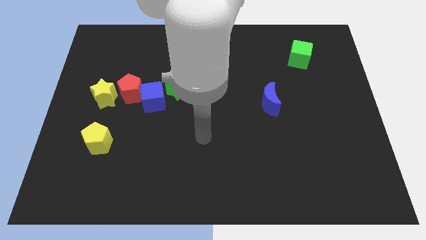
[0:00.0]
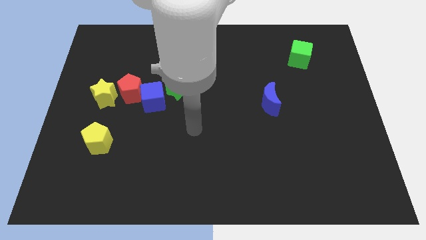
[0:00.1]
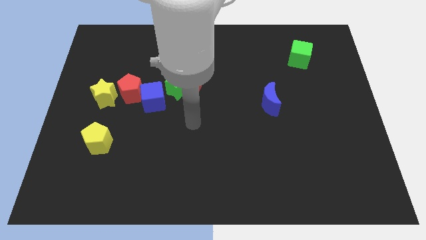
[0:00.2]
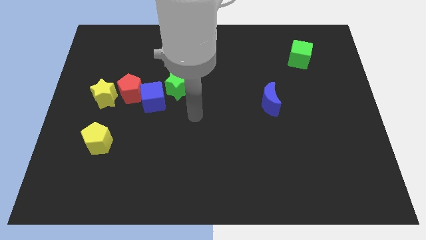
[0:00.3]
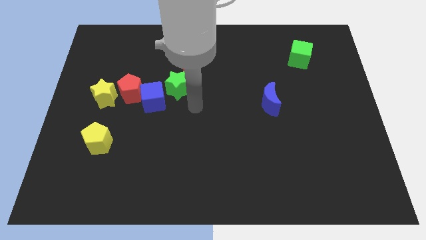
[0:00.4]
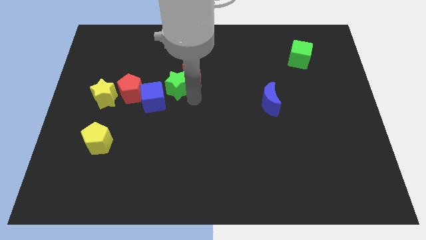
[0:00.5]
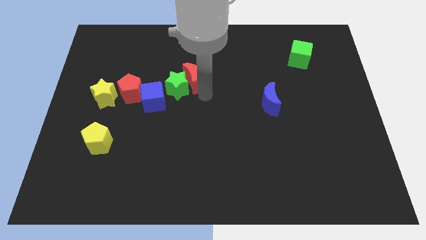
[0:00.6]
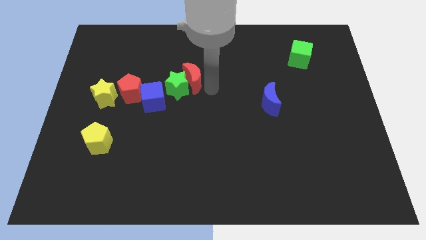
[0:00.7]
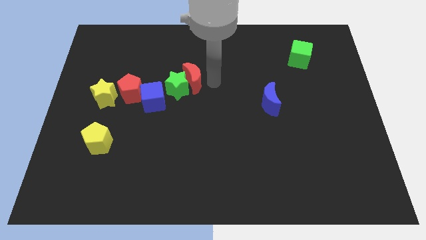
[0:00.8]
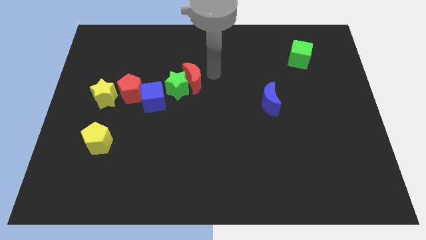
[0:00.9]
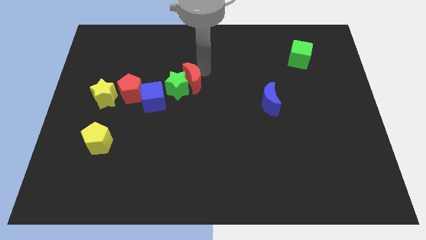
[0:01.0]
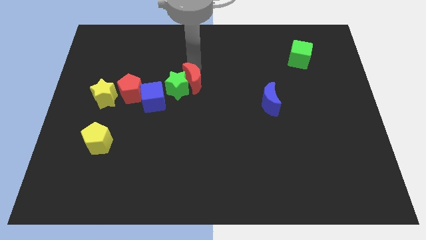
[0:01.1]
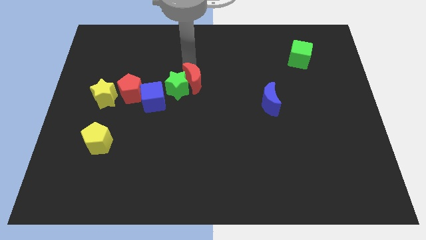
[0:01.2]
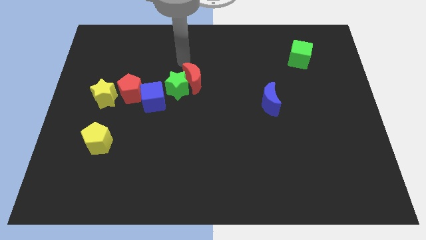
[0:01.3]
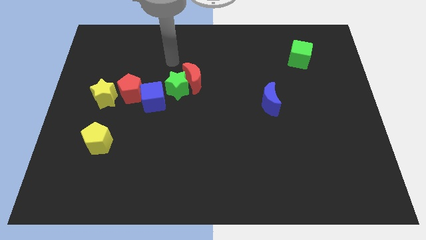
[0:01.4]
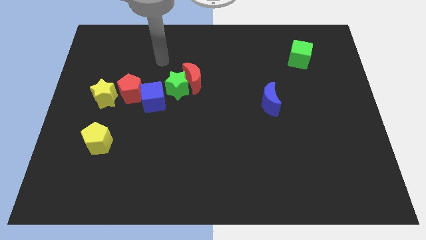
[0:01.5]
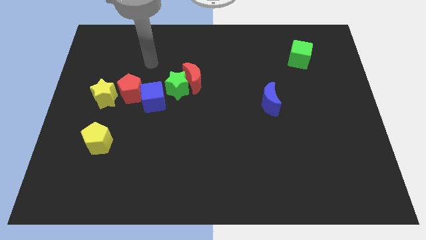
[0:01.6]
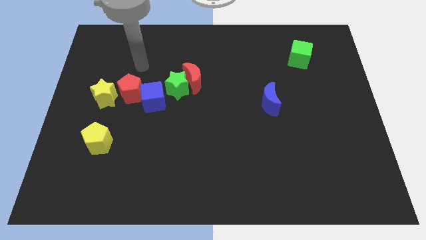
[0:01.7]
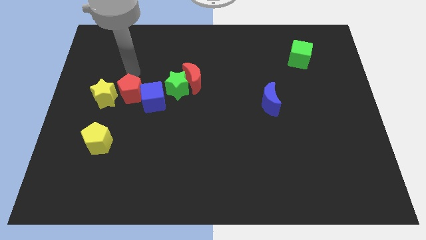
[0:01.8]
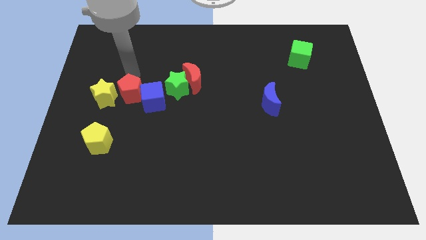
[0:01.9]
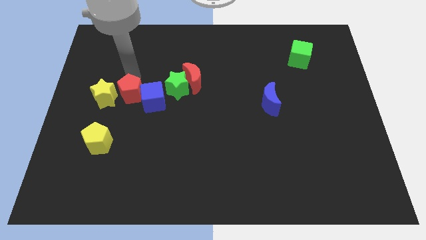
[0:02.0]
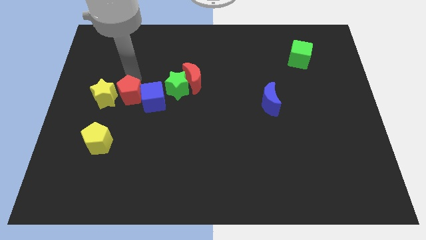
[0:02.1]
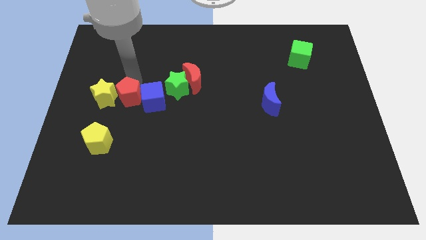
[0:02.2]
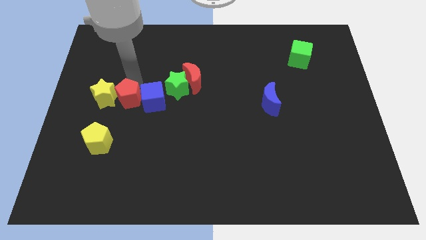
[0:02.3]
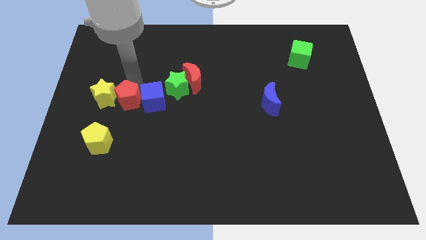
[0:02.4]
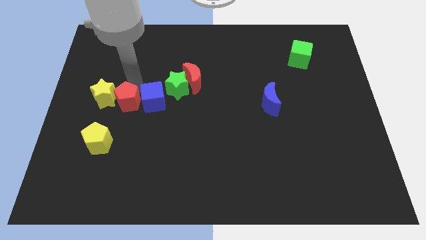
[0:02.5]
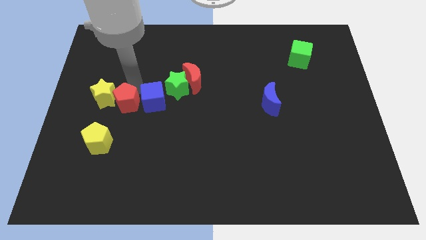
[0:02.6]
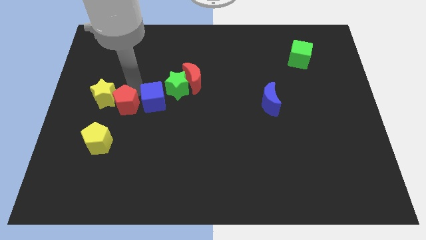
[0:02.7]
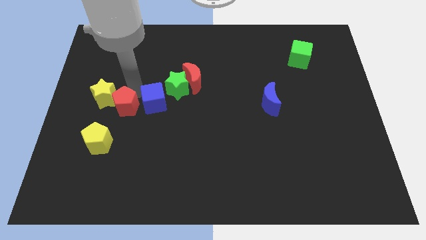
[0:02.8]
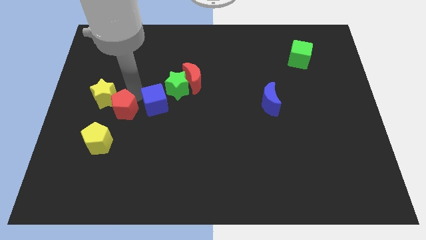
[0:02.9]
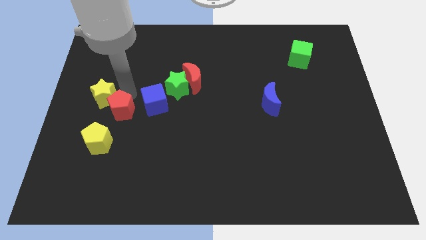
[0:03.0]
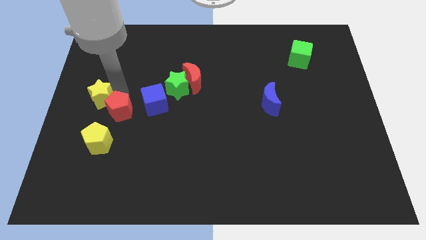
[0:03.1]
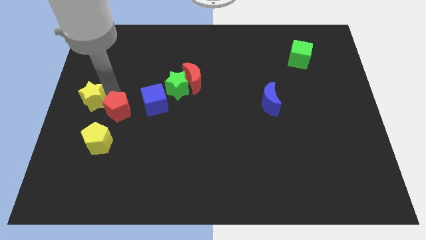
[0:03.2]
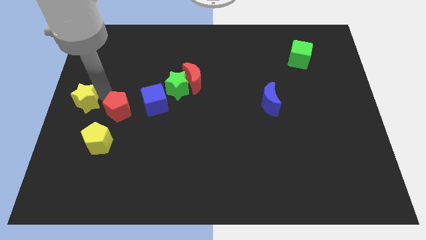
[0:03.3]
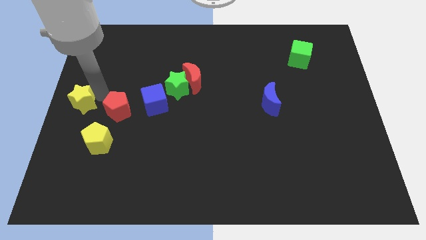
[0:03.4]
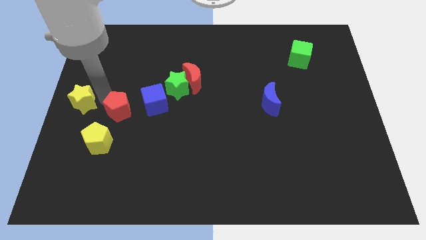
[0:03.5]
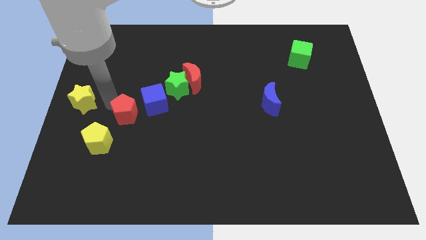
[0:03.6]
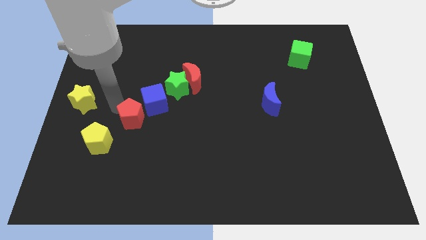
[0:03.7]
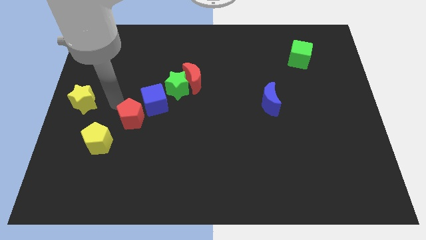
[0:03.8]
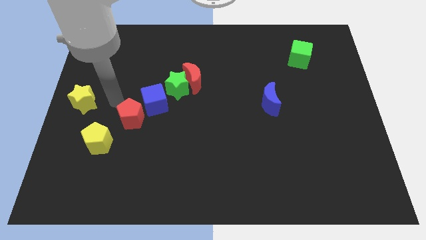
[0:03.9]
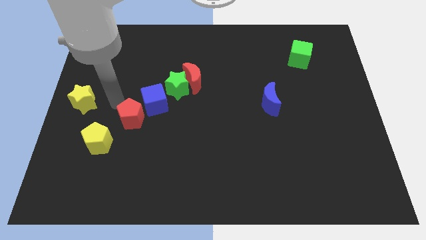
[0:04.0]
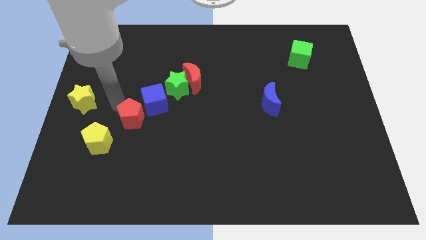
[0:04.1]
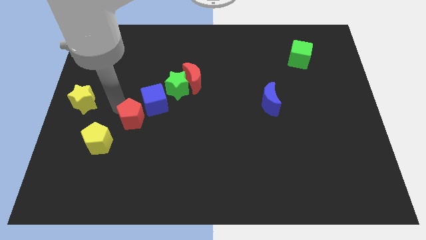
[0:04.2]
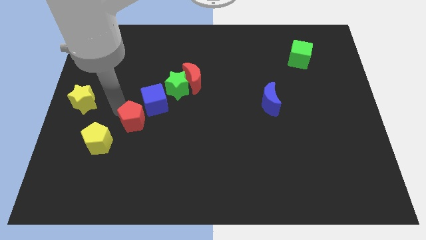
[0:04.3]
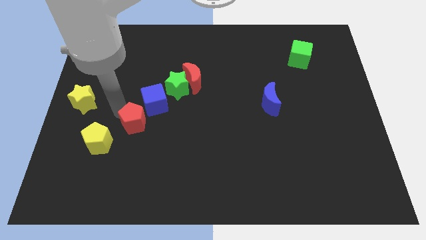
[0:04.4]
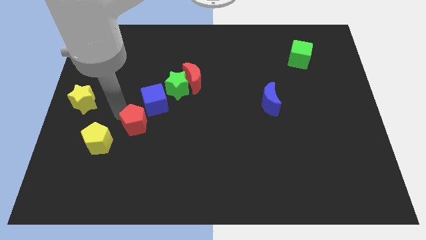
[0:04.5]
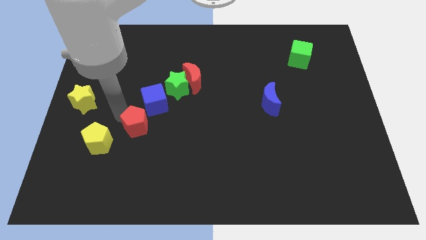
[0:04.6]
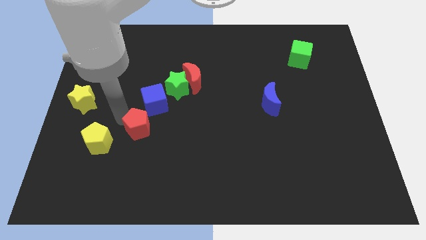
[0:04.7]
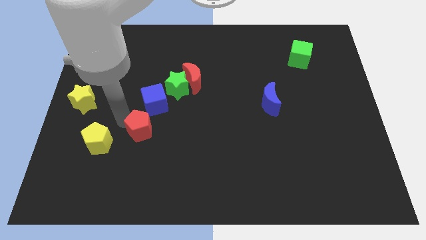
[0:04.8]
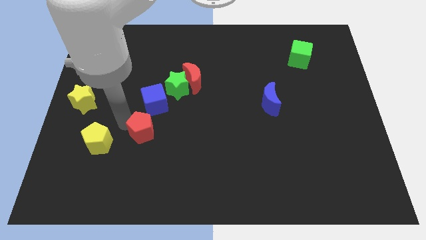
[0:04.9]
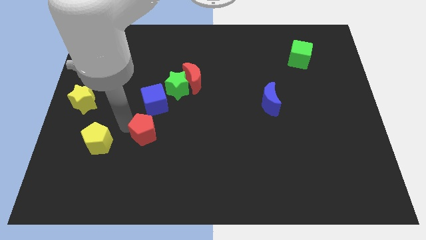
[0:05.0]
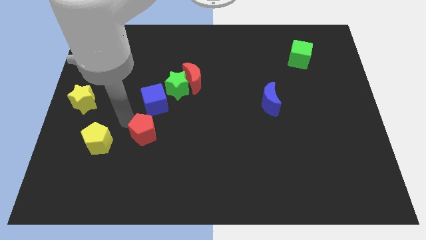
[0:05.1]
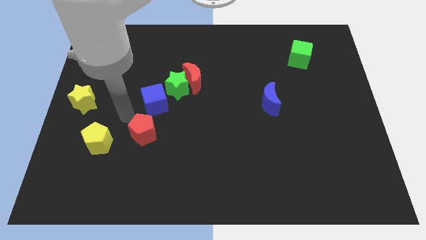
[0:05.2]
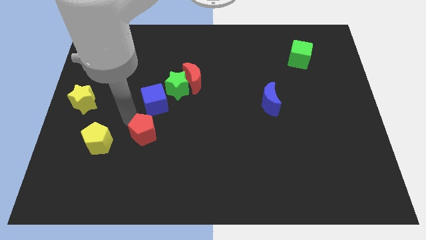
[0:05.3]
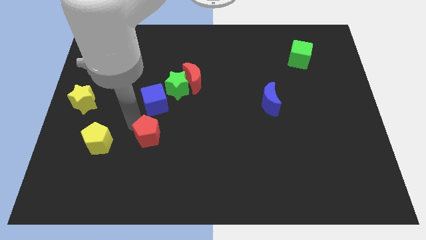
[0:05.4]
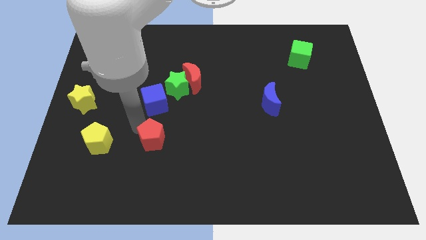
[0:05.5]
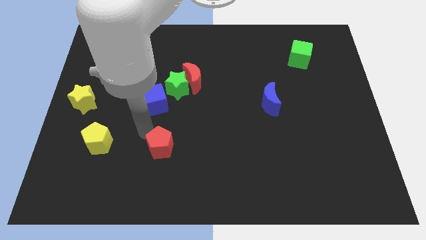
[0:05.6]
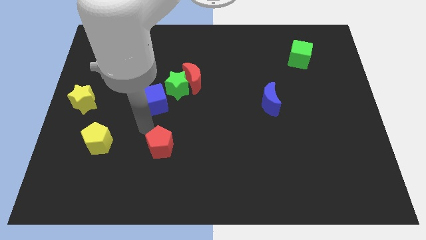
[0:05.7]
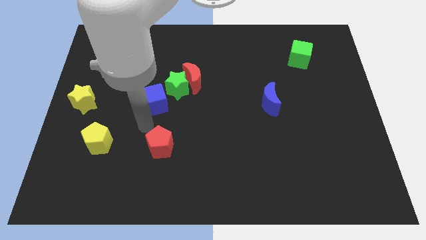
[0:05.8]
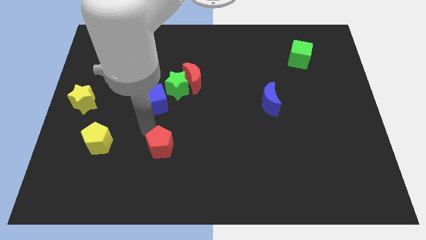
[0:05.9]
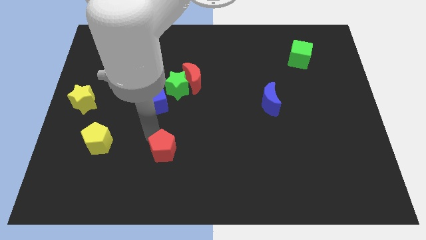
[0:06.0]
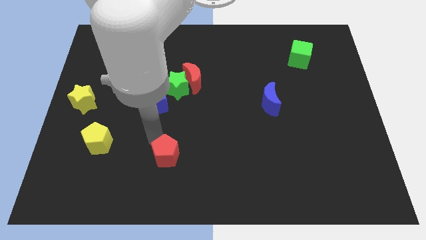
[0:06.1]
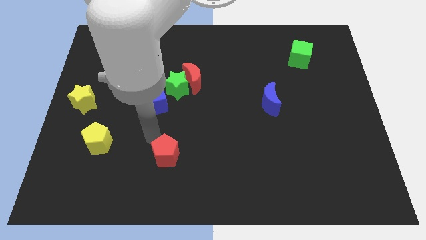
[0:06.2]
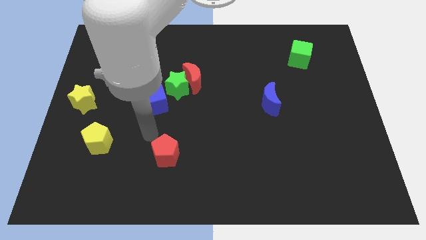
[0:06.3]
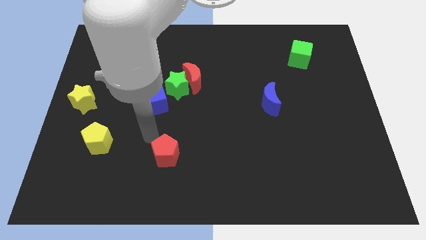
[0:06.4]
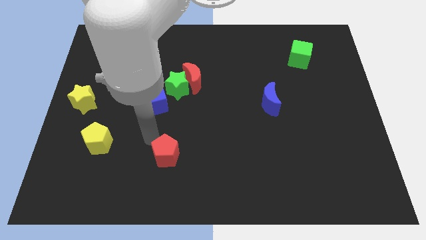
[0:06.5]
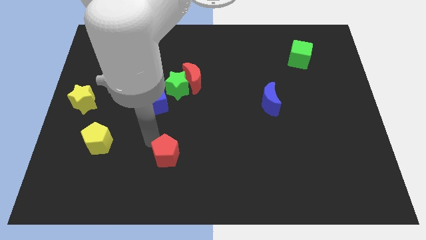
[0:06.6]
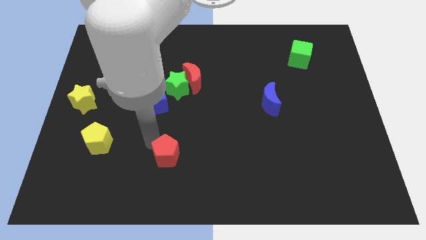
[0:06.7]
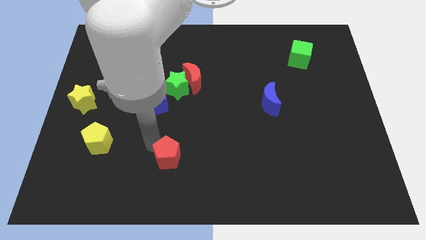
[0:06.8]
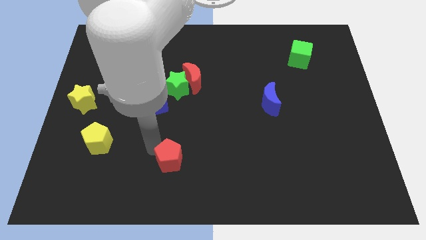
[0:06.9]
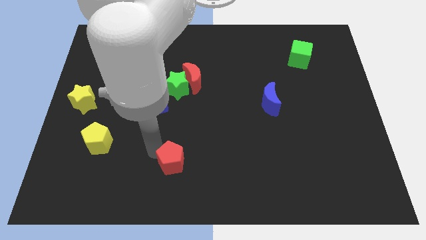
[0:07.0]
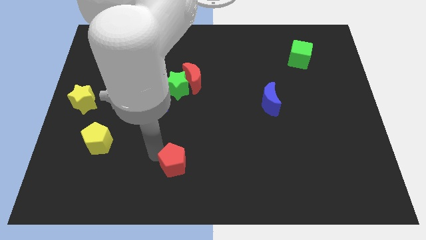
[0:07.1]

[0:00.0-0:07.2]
put the red pentagon to the bottom side
